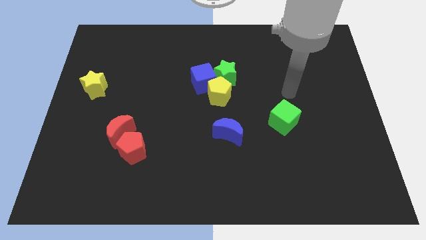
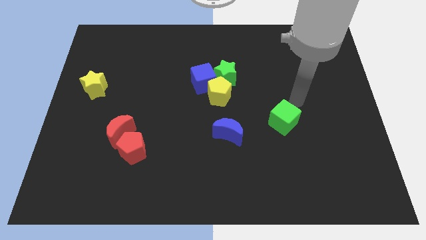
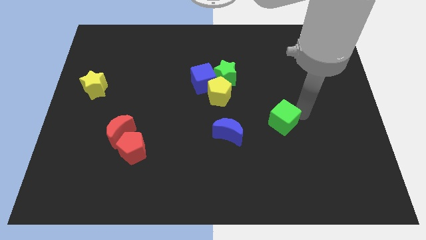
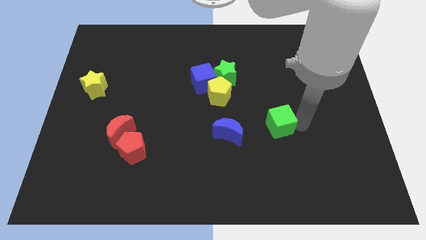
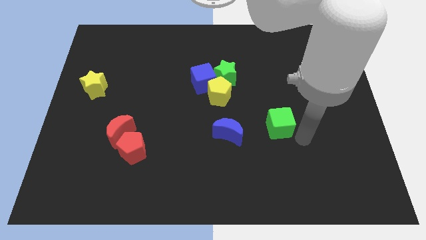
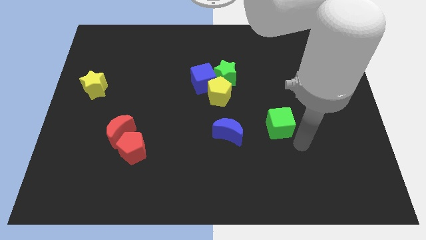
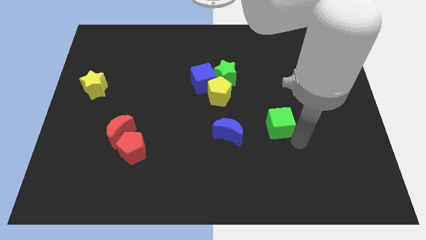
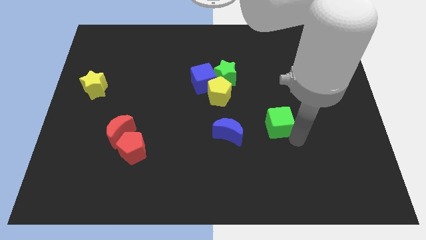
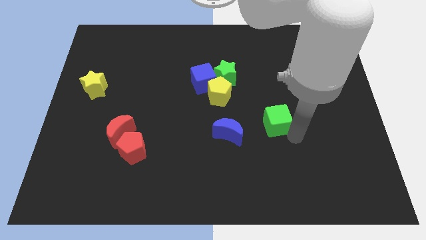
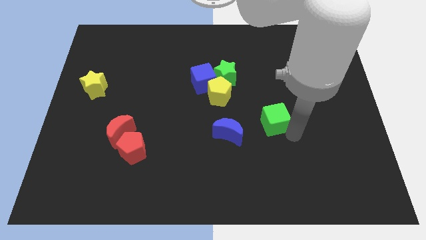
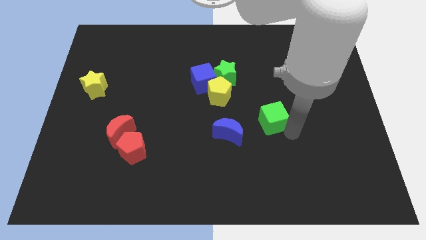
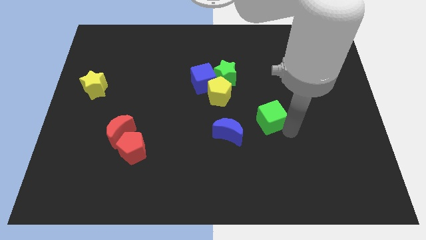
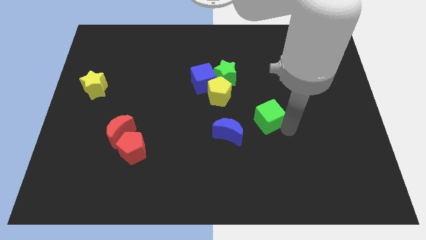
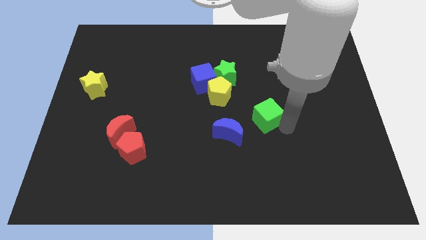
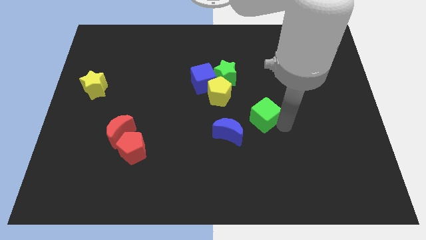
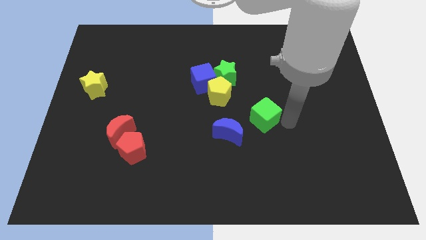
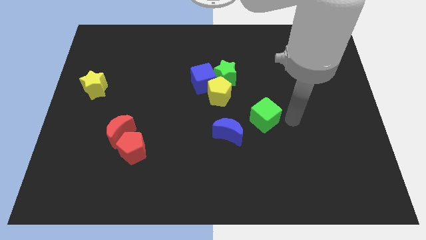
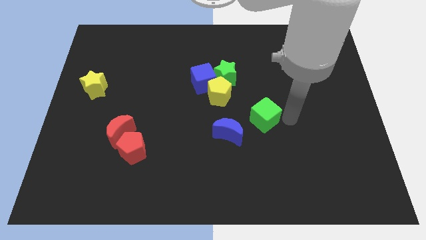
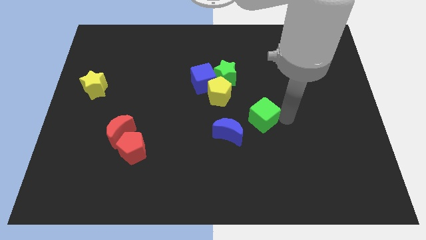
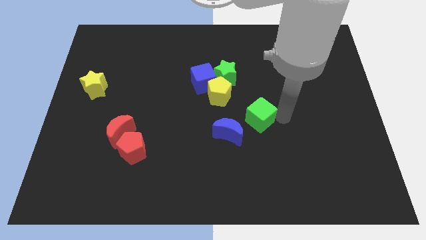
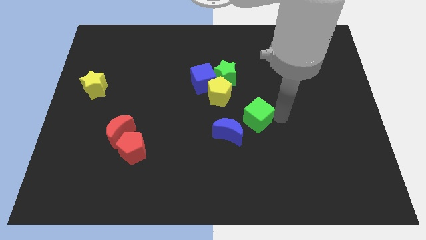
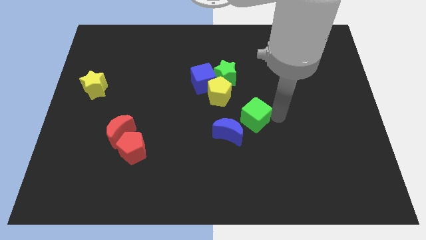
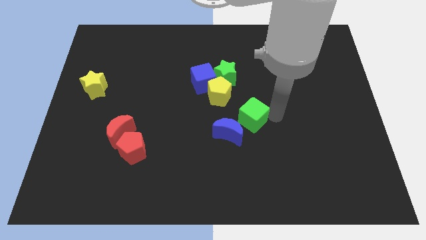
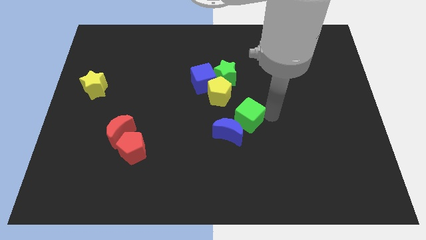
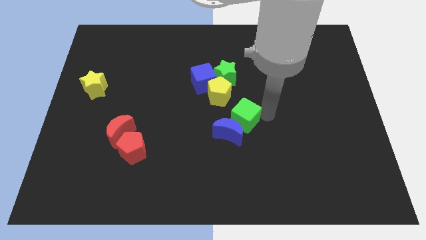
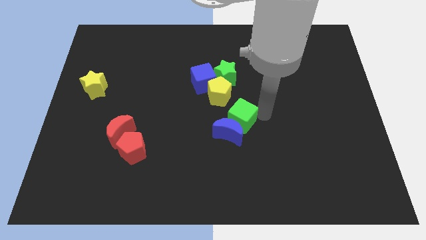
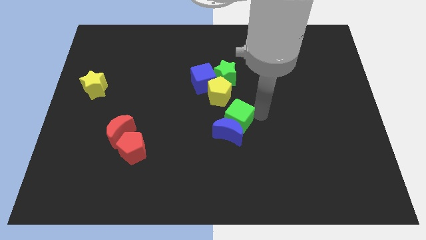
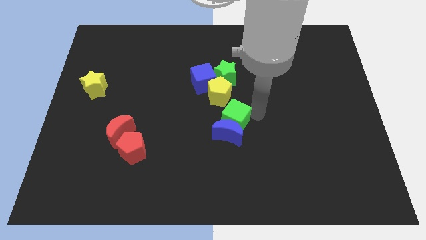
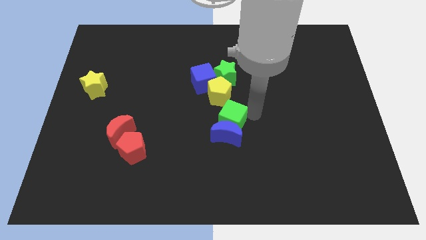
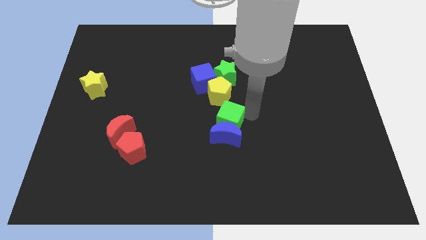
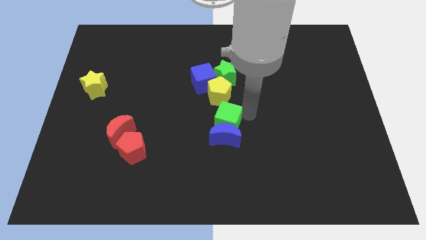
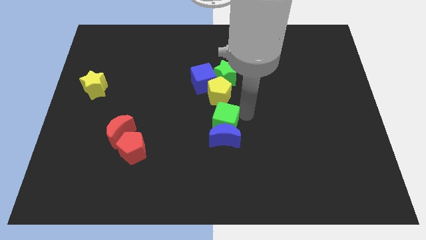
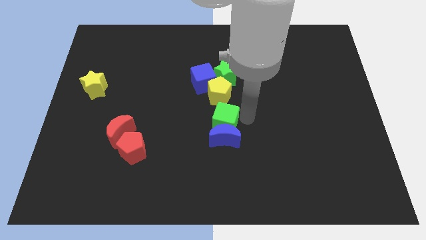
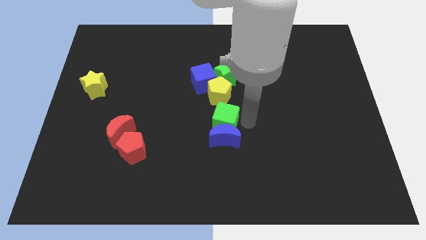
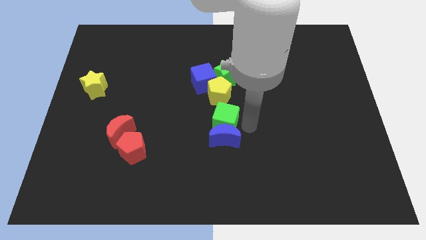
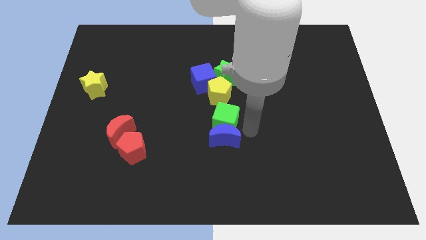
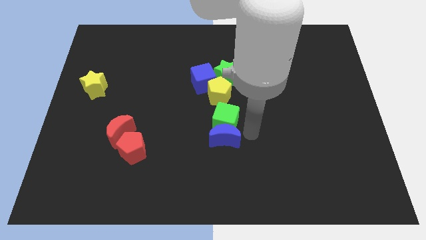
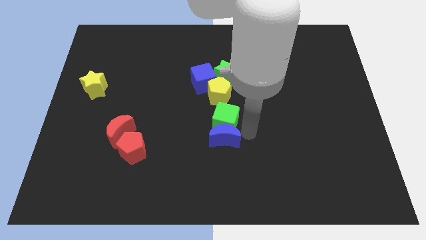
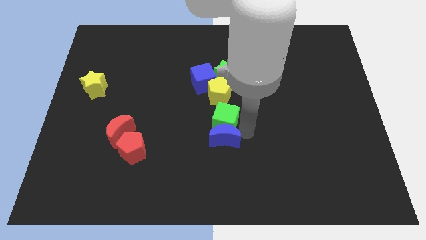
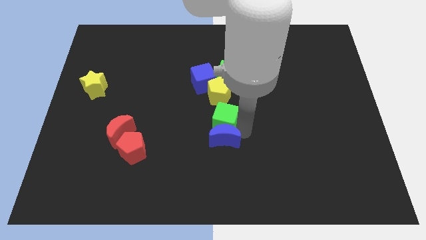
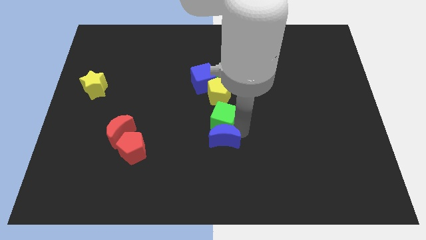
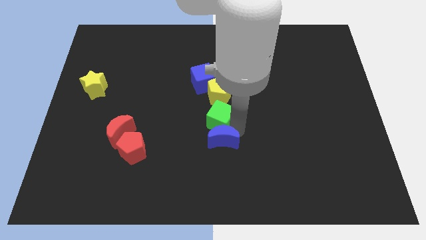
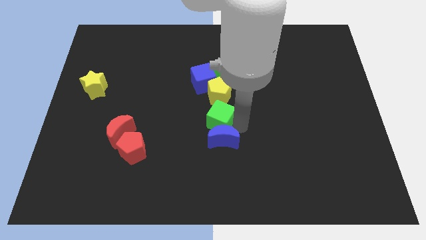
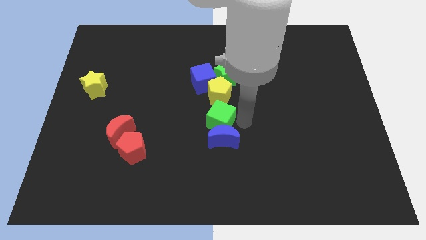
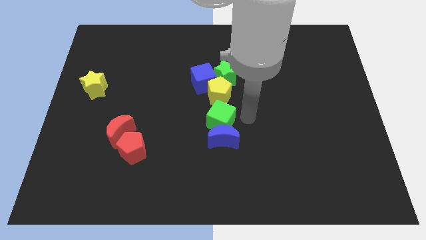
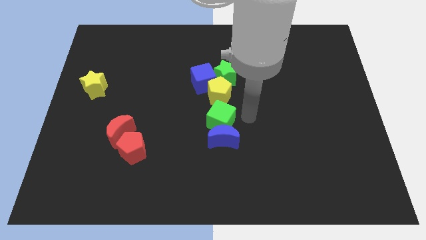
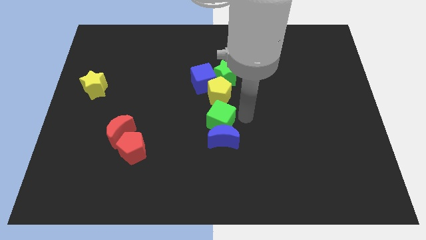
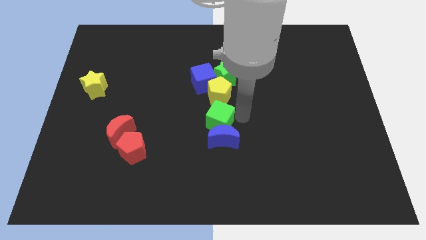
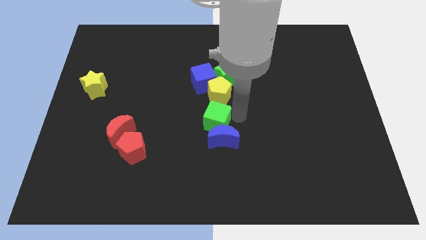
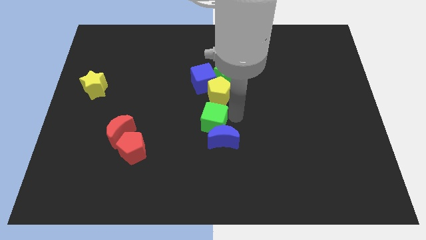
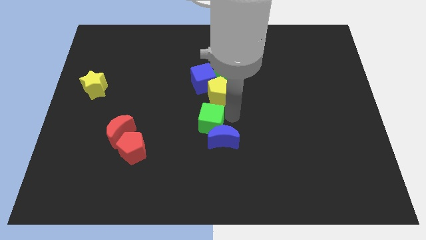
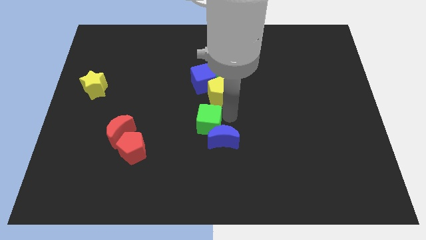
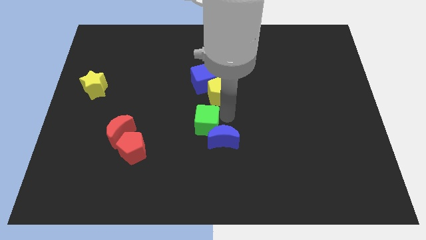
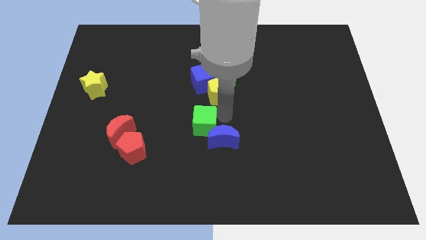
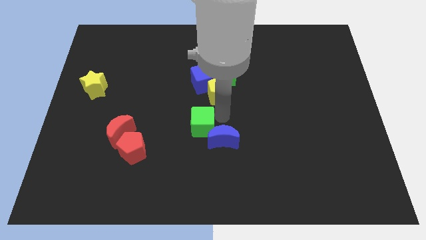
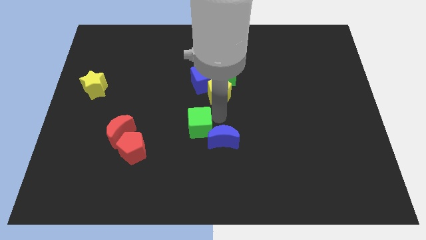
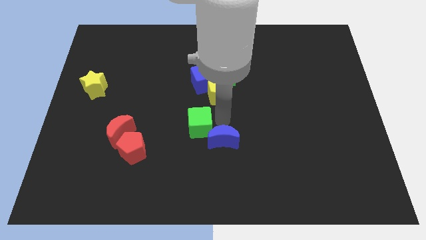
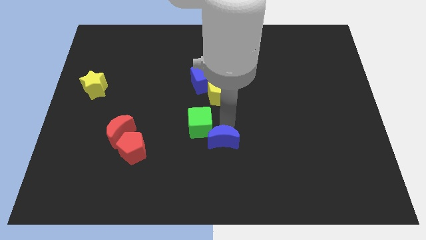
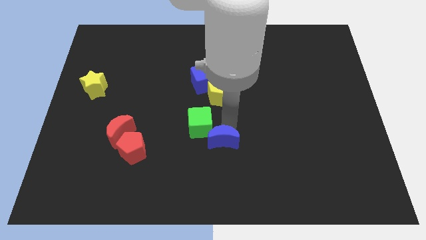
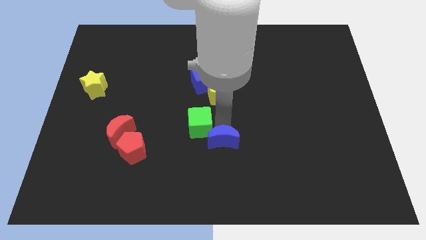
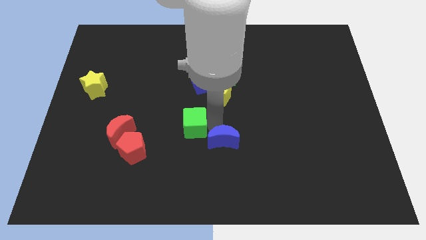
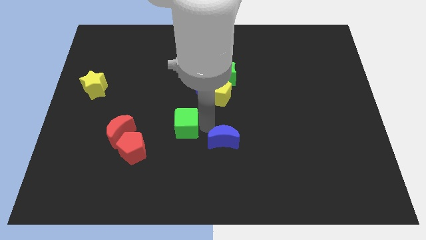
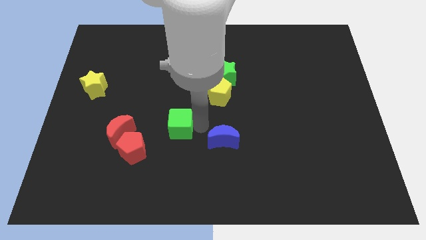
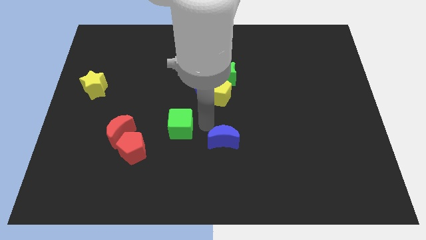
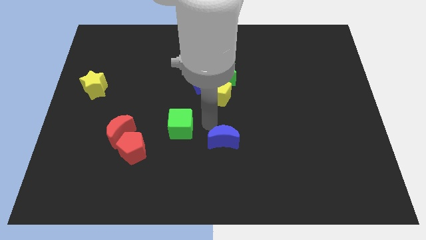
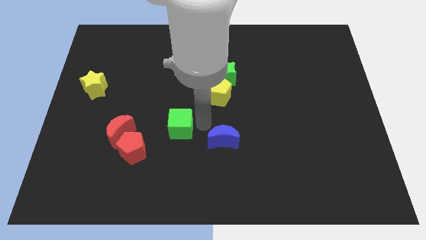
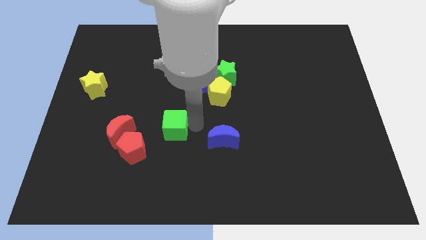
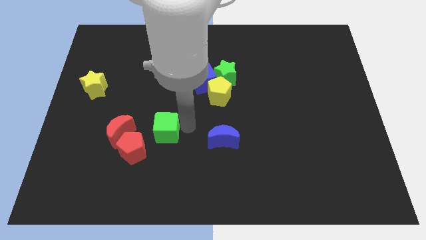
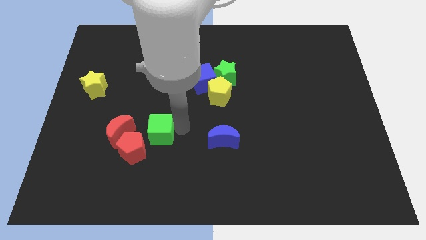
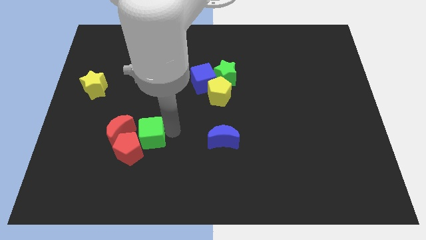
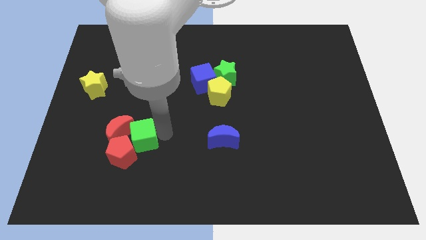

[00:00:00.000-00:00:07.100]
slide the green cube towards the red moon

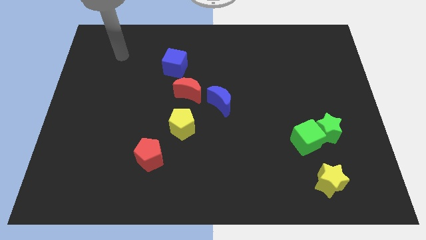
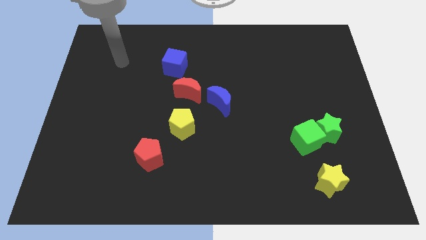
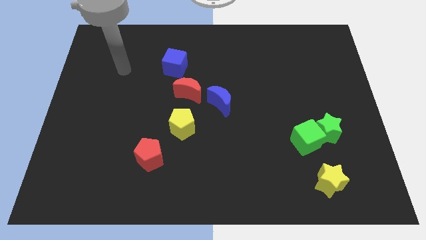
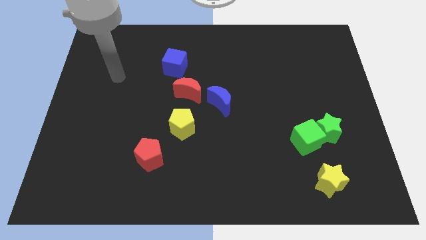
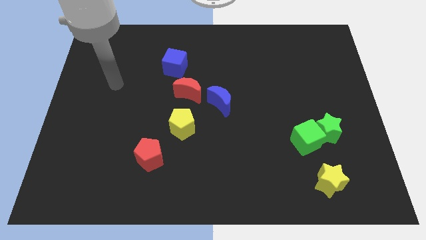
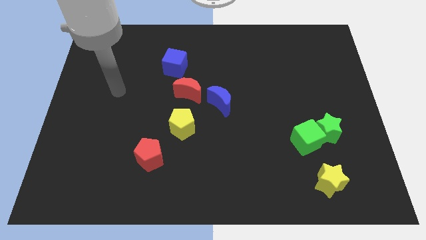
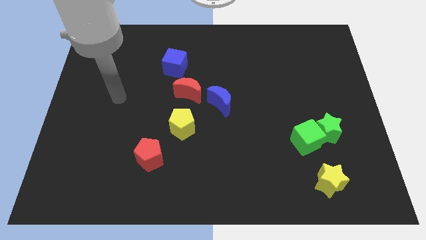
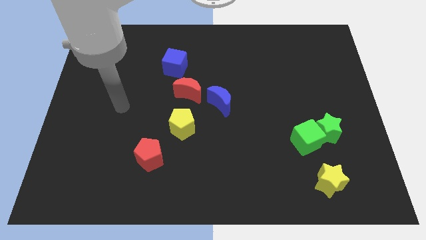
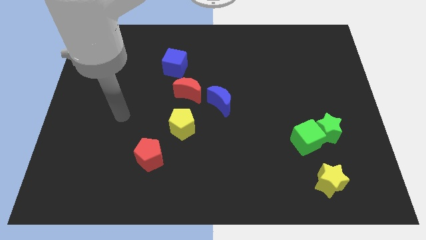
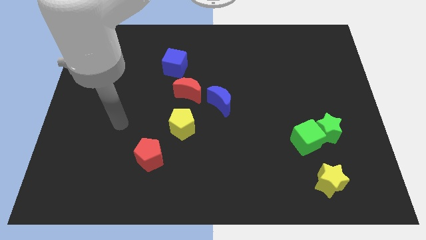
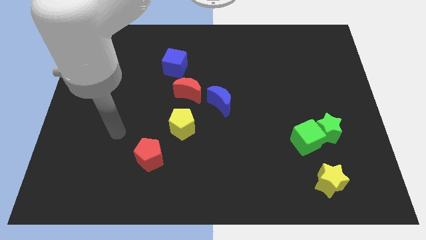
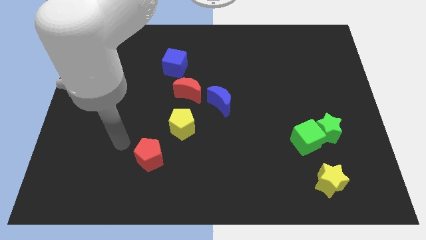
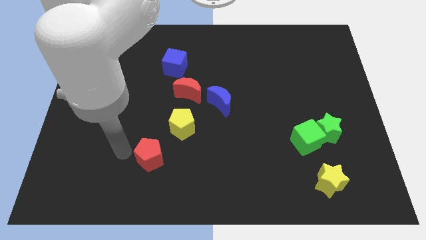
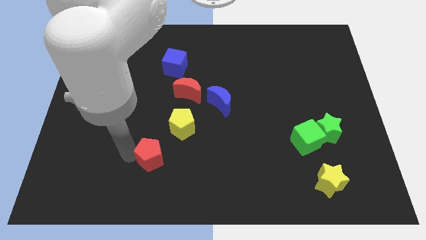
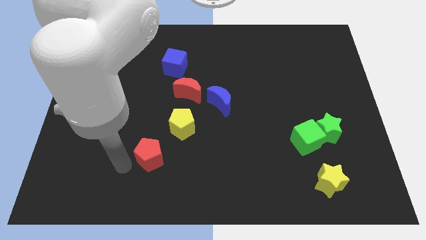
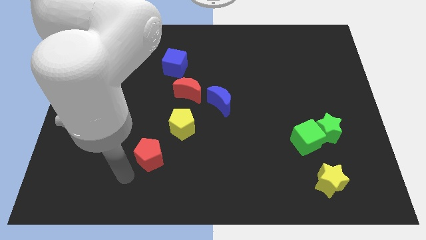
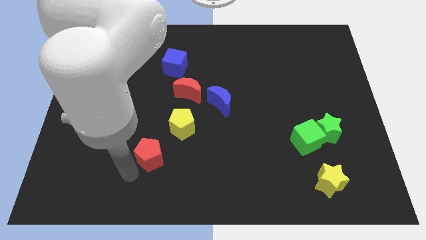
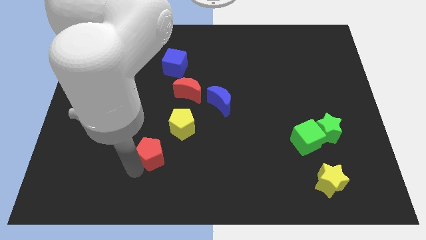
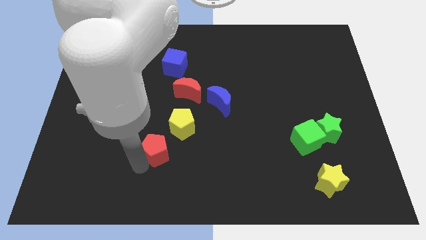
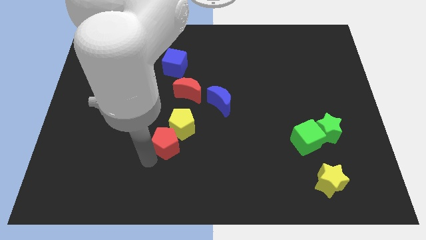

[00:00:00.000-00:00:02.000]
move the red pentagon close to the yellow pentagon
